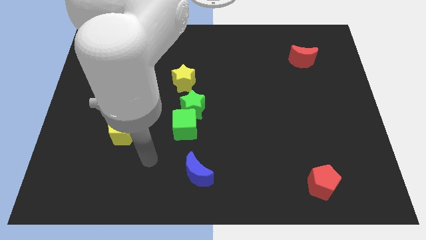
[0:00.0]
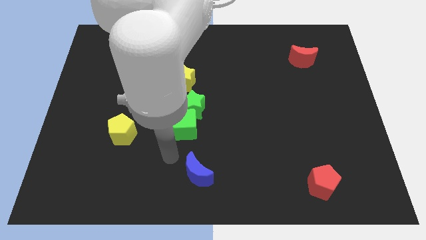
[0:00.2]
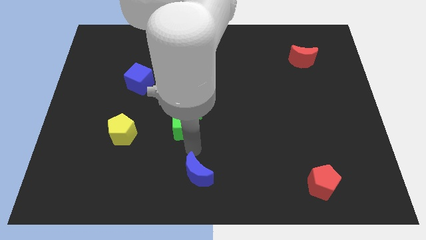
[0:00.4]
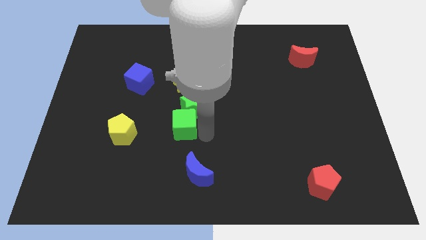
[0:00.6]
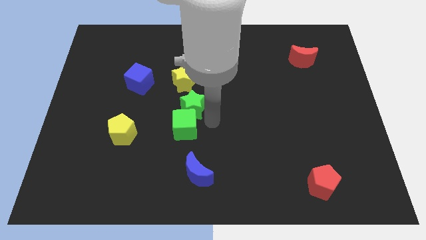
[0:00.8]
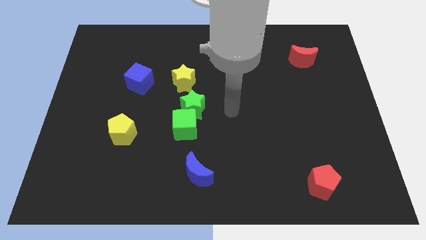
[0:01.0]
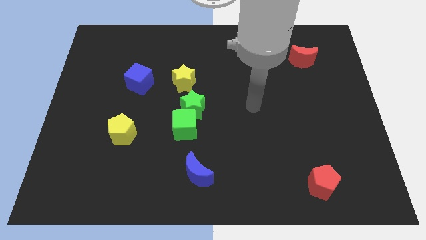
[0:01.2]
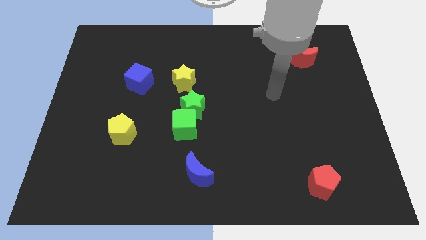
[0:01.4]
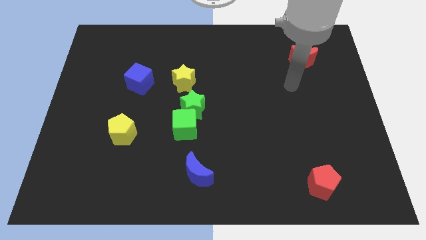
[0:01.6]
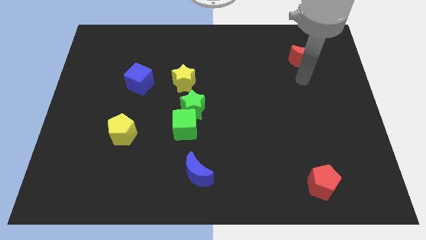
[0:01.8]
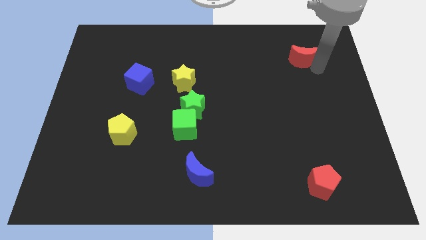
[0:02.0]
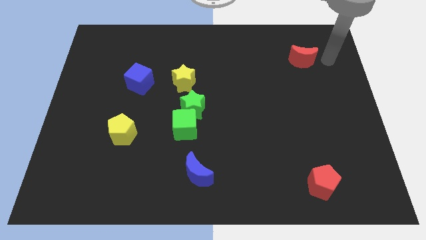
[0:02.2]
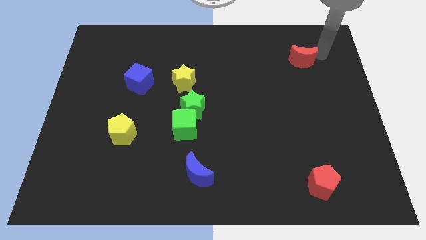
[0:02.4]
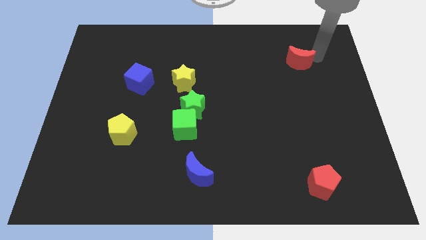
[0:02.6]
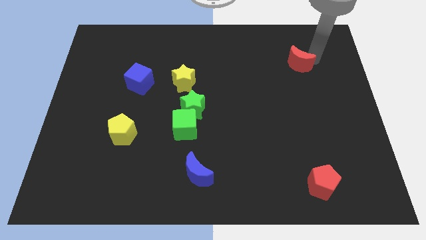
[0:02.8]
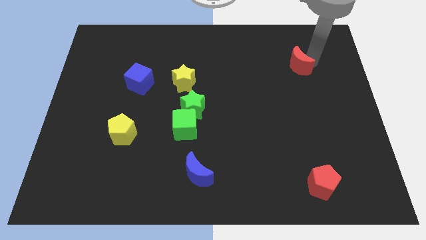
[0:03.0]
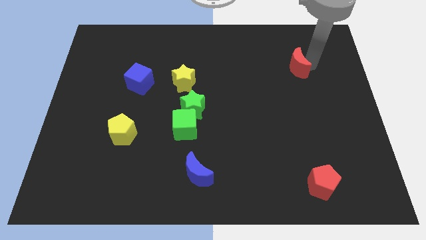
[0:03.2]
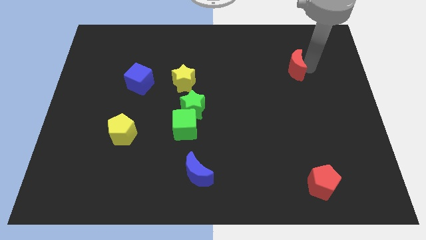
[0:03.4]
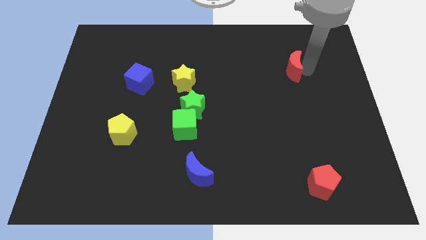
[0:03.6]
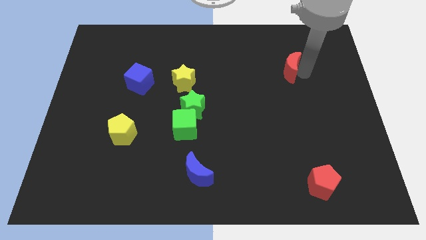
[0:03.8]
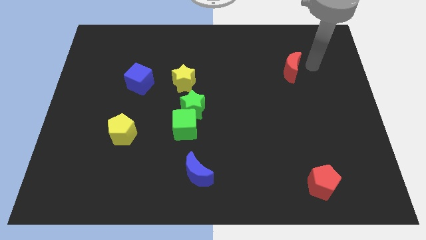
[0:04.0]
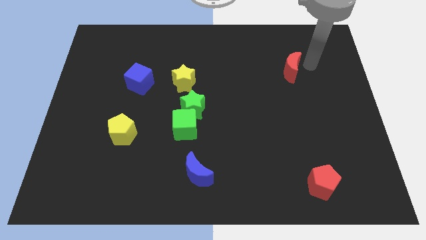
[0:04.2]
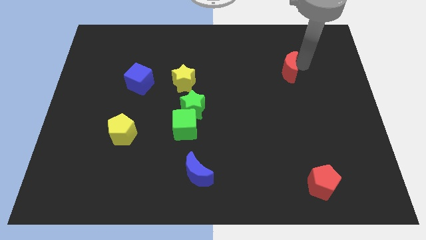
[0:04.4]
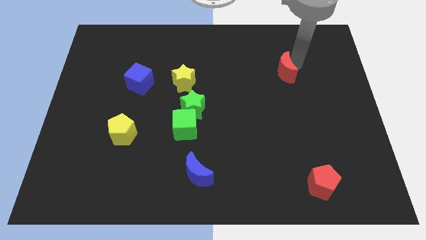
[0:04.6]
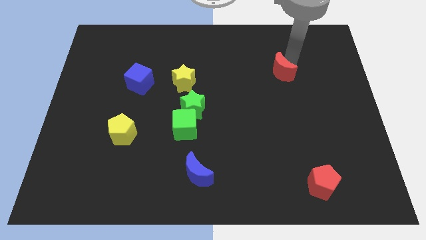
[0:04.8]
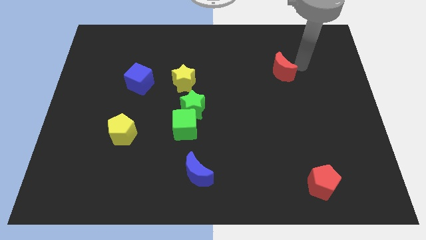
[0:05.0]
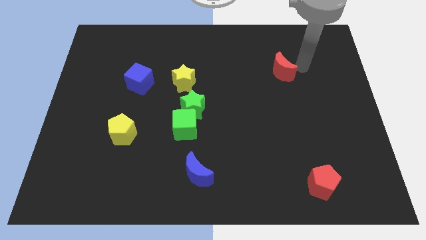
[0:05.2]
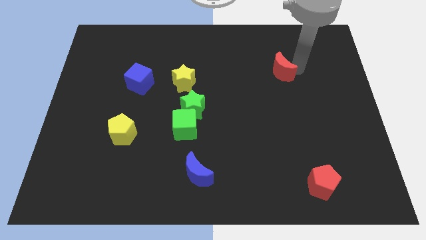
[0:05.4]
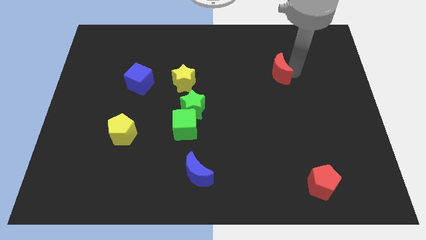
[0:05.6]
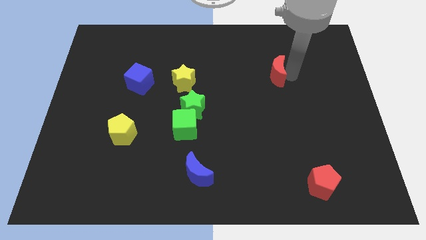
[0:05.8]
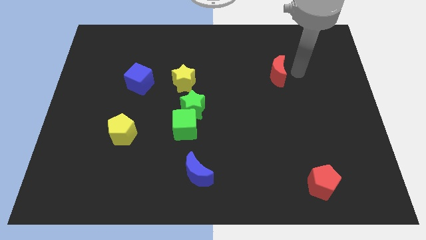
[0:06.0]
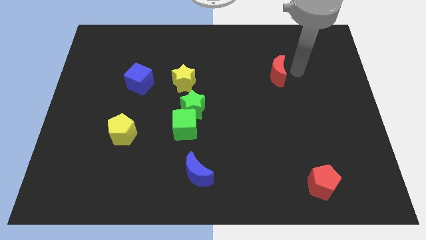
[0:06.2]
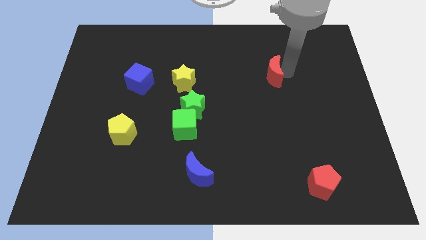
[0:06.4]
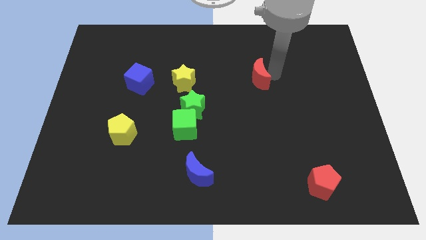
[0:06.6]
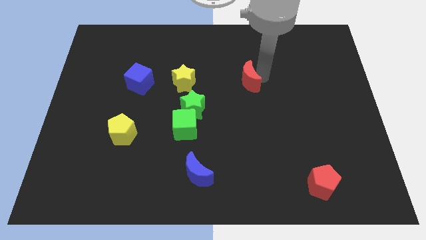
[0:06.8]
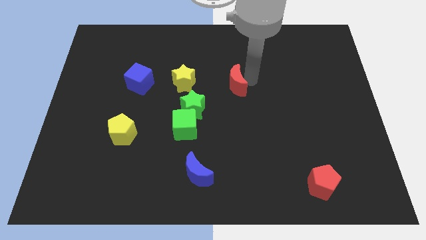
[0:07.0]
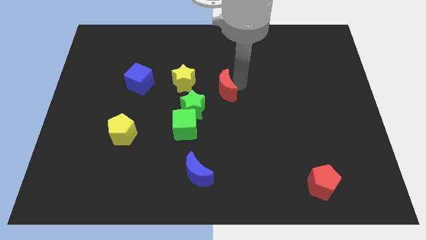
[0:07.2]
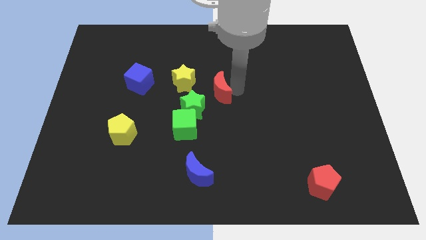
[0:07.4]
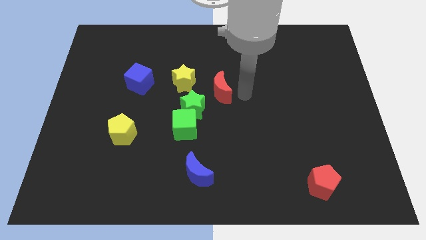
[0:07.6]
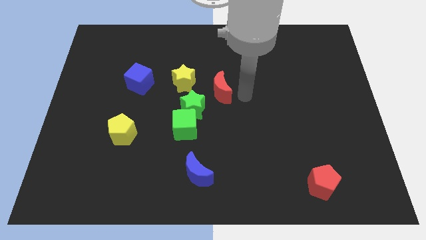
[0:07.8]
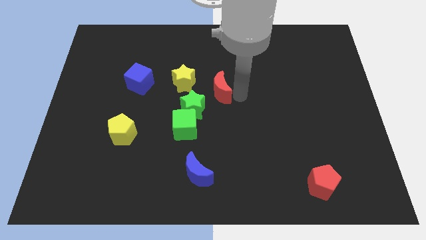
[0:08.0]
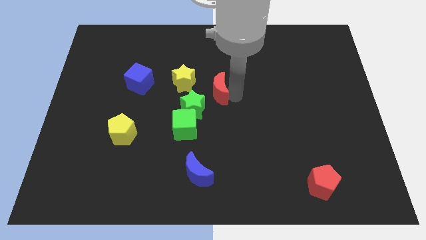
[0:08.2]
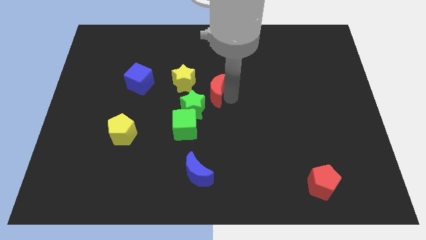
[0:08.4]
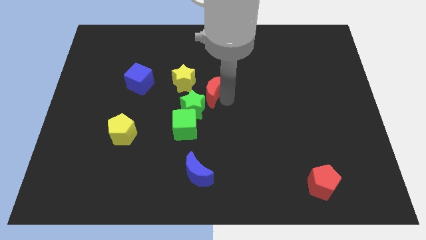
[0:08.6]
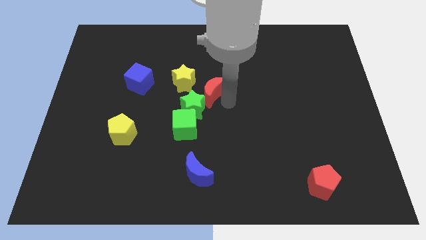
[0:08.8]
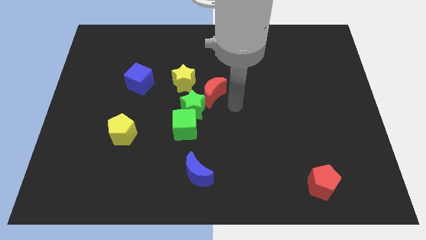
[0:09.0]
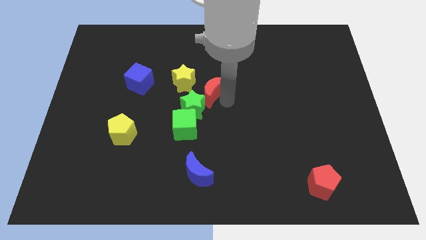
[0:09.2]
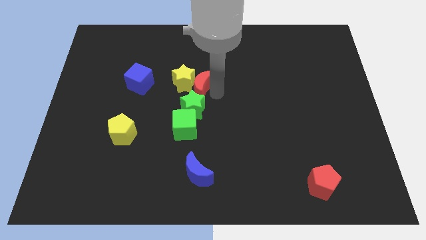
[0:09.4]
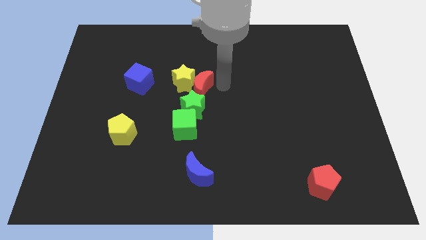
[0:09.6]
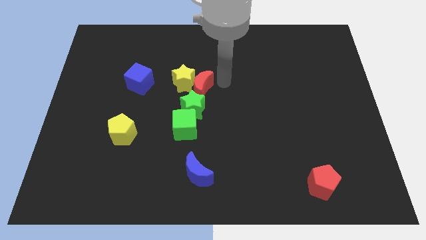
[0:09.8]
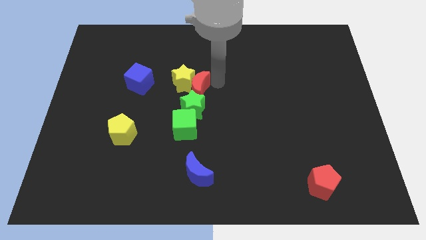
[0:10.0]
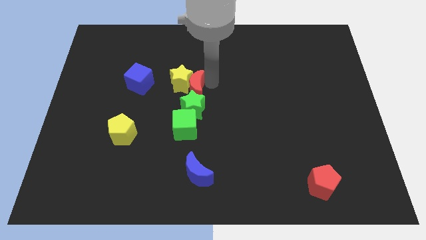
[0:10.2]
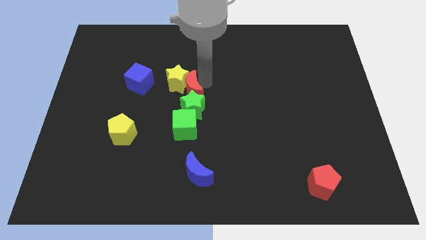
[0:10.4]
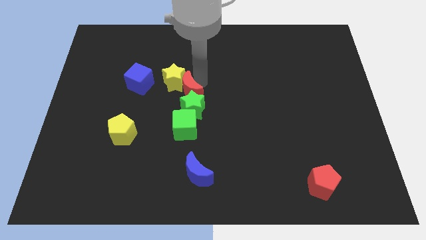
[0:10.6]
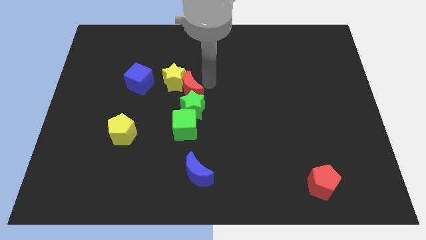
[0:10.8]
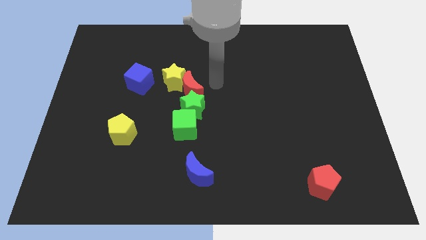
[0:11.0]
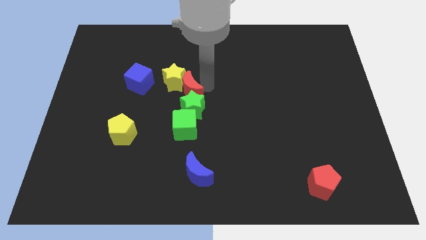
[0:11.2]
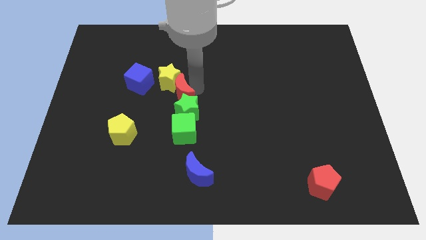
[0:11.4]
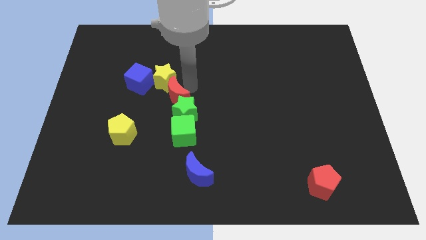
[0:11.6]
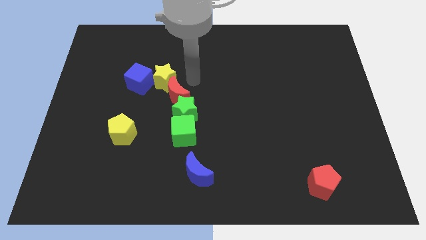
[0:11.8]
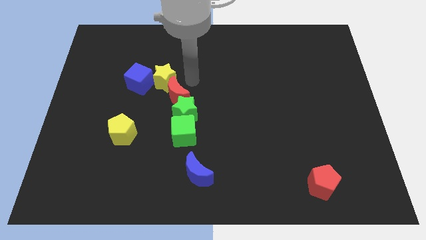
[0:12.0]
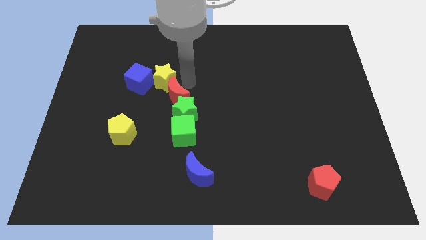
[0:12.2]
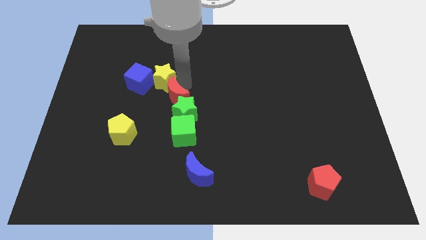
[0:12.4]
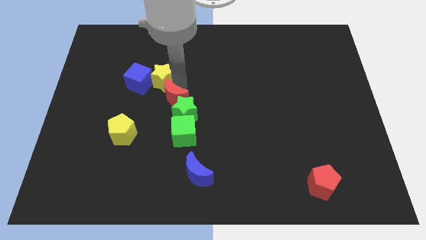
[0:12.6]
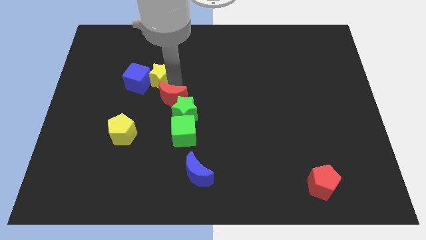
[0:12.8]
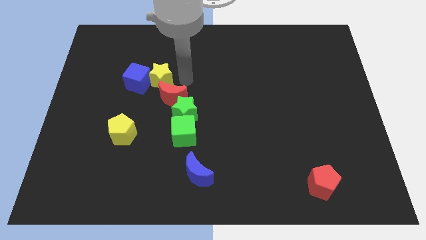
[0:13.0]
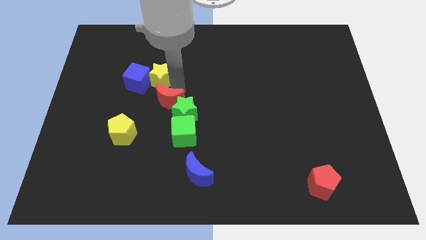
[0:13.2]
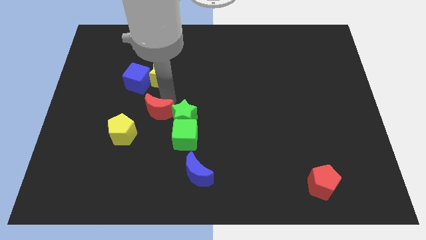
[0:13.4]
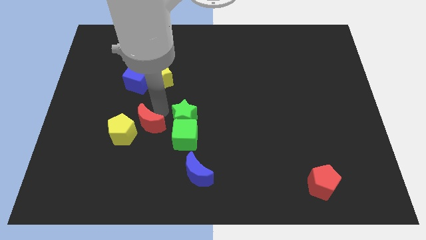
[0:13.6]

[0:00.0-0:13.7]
move the red moon towards the yellow pentagon
